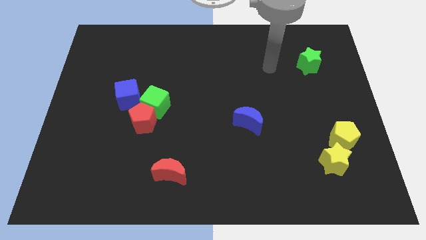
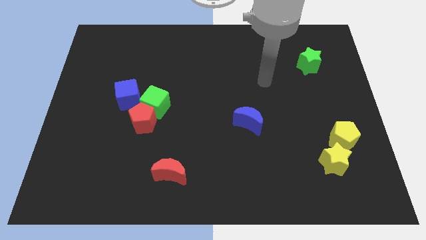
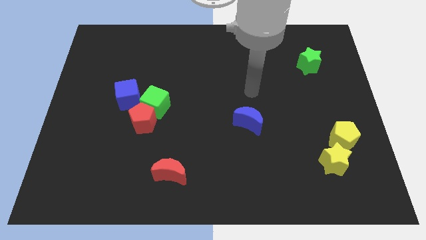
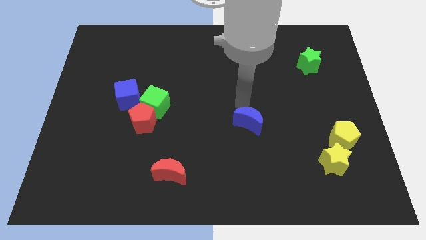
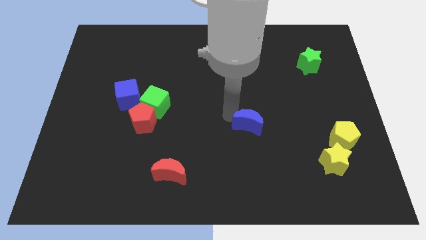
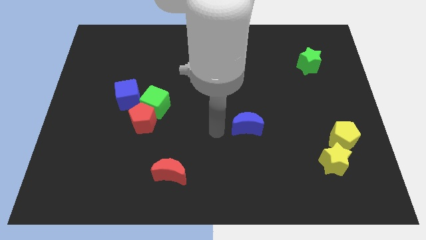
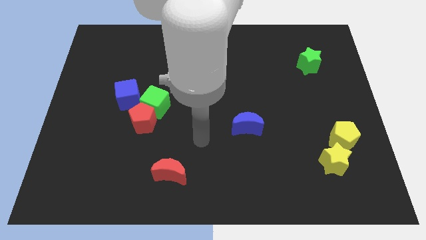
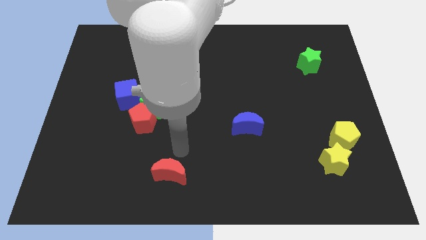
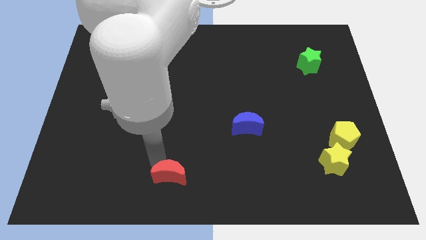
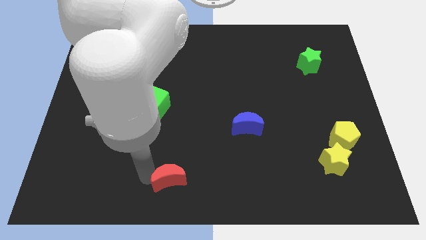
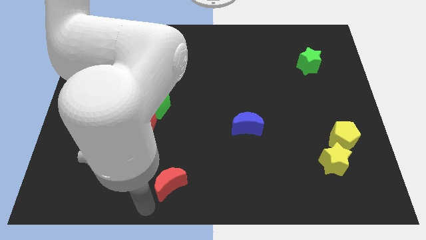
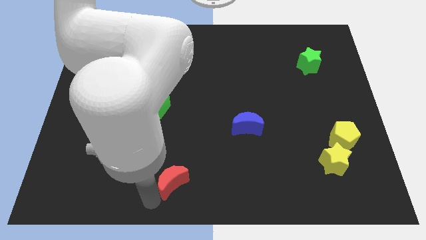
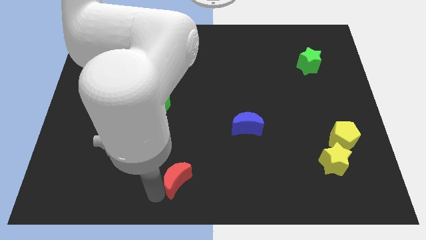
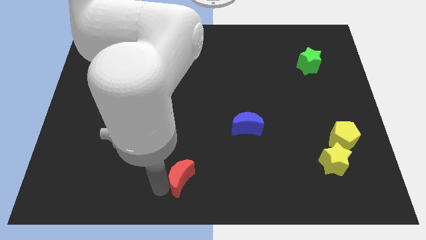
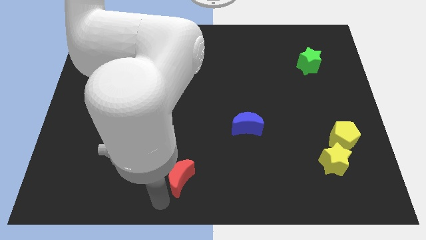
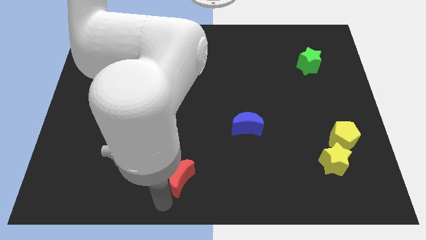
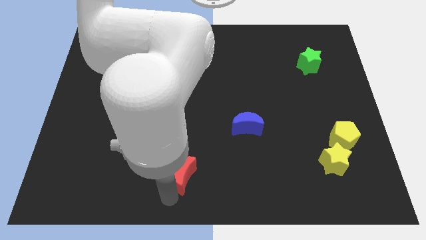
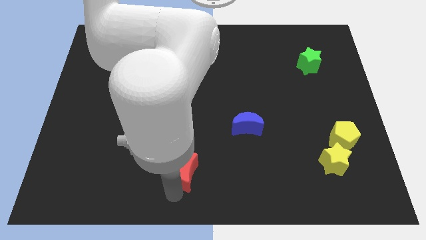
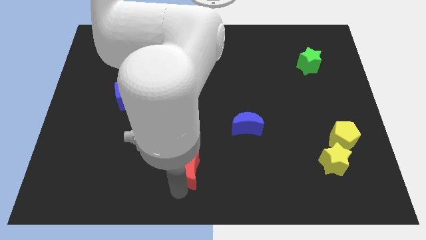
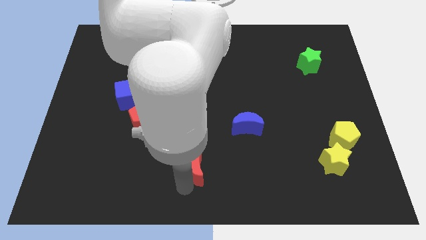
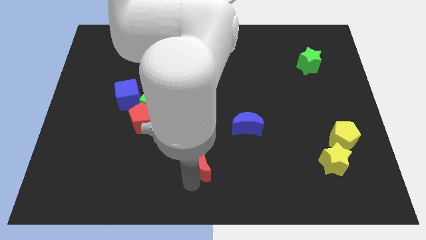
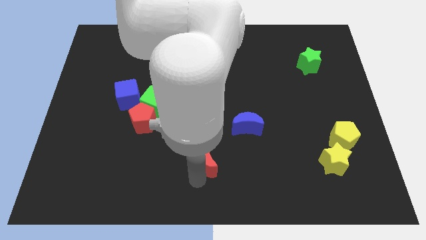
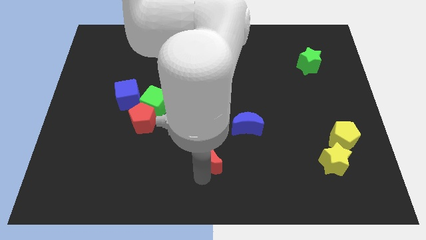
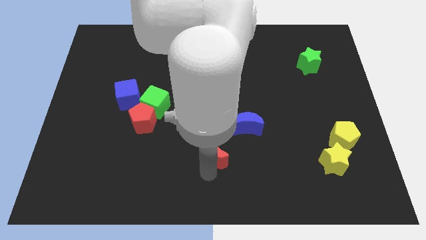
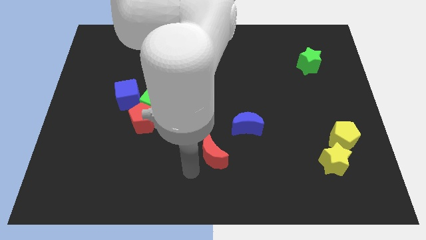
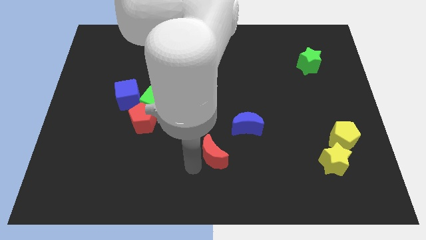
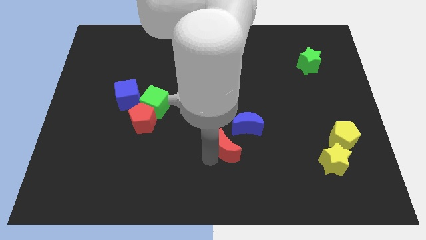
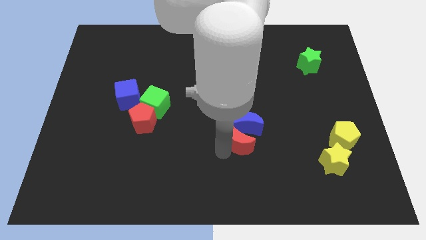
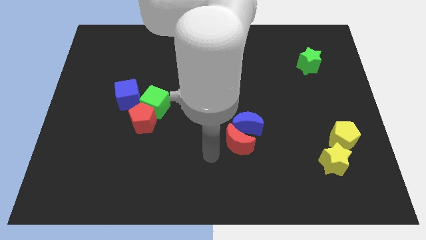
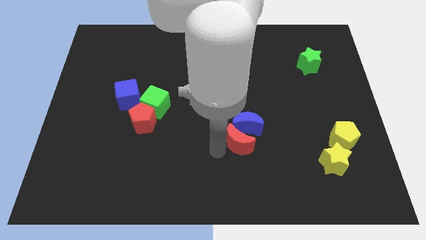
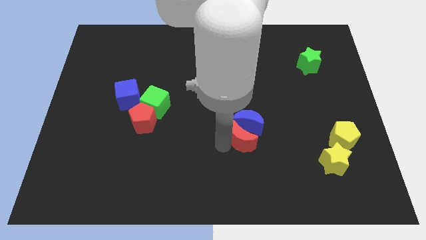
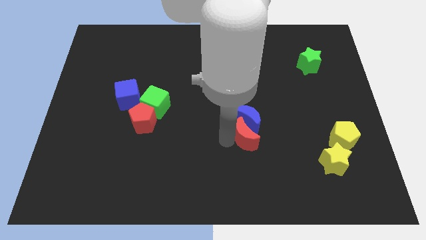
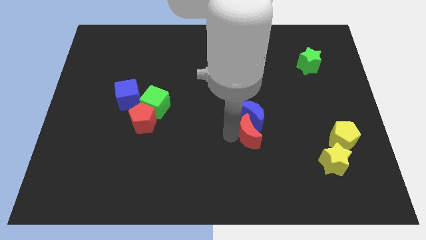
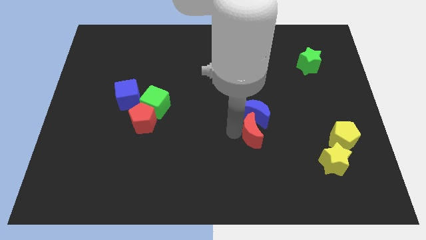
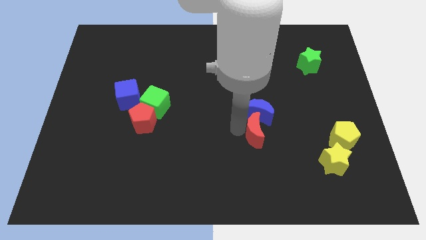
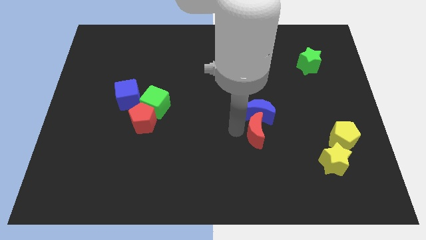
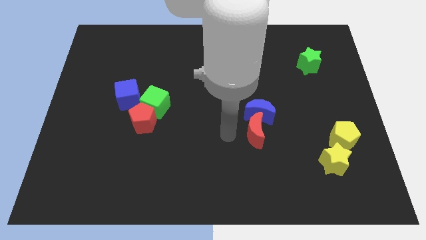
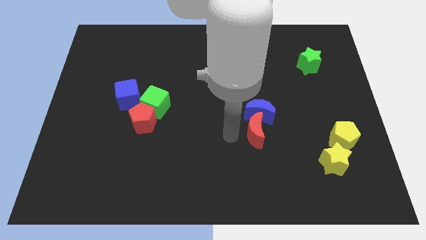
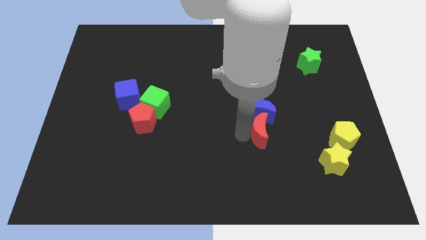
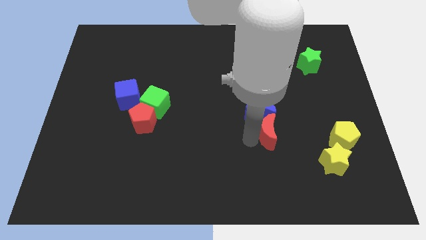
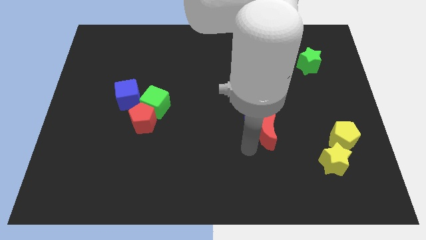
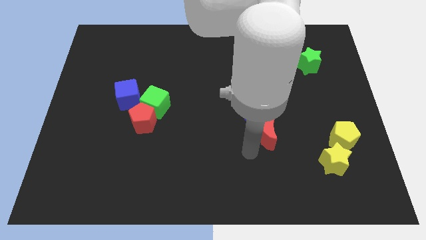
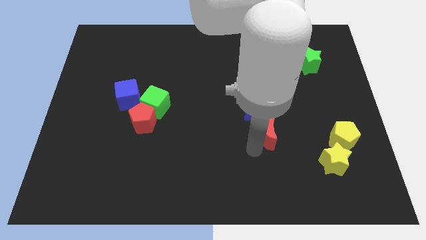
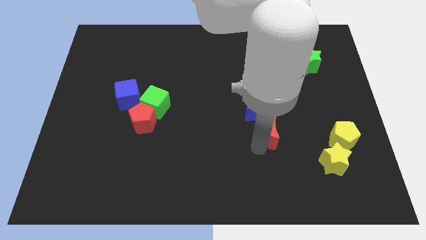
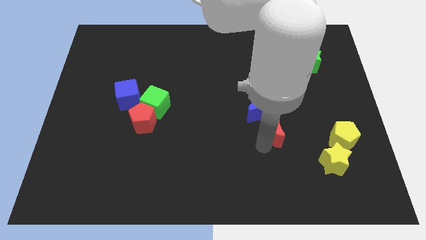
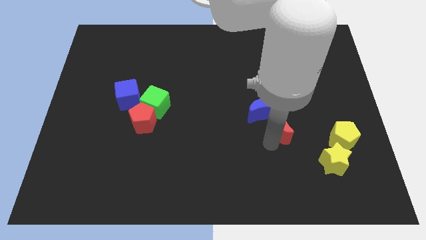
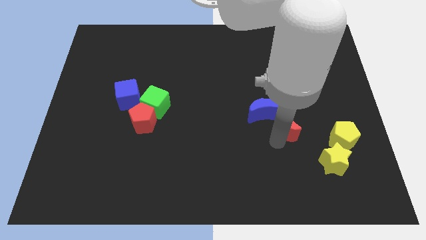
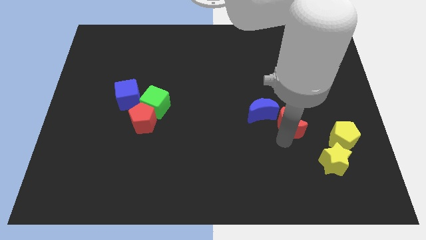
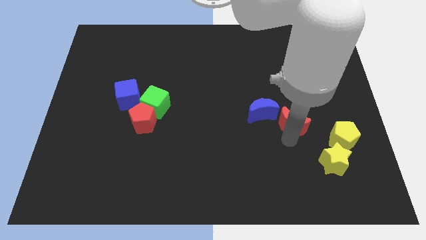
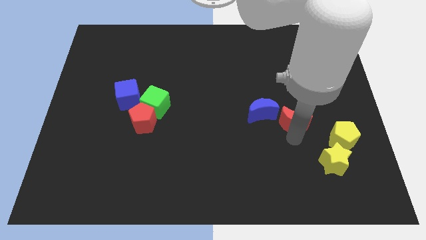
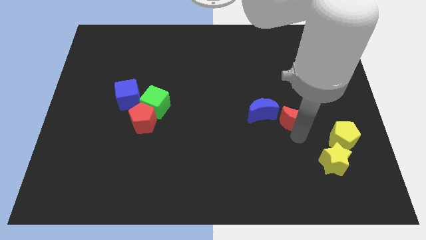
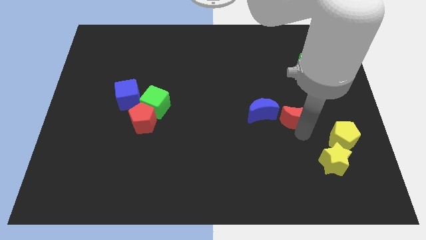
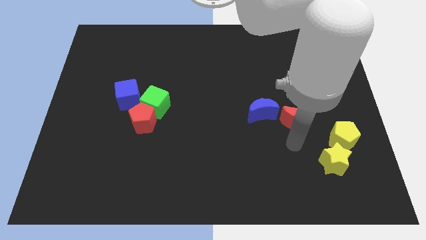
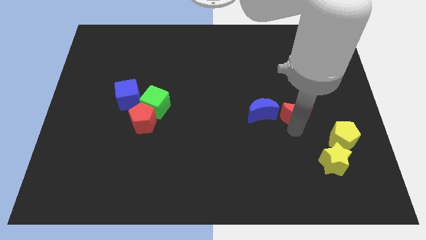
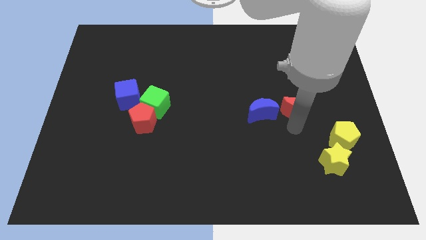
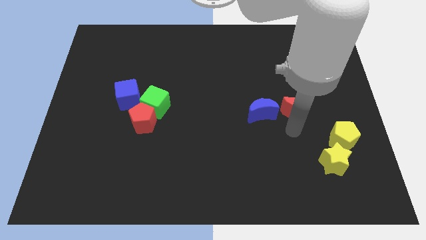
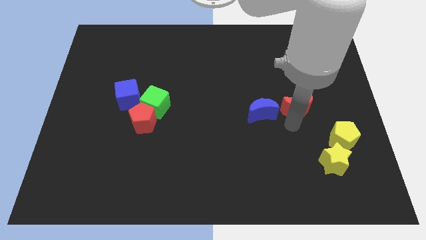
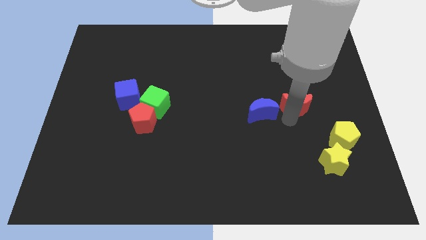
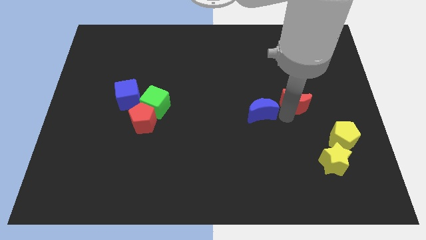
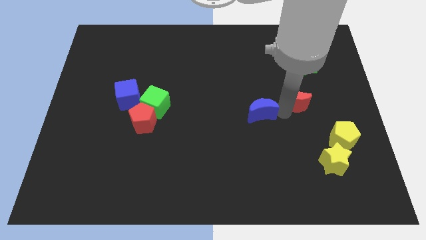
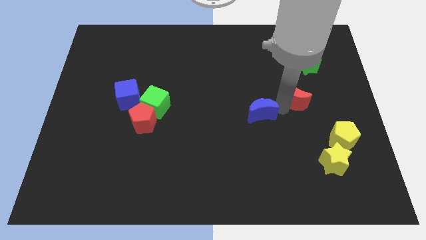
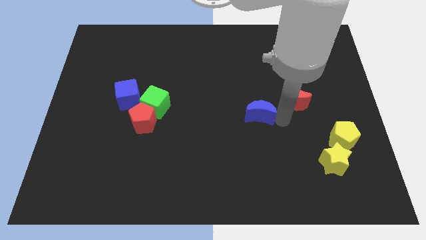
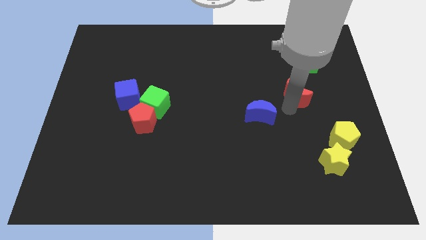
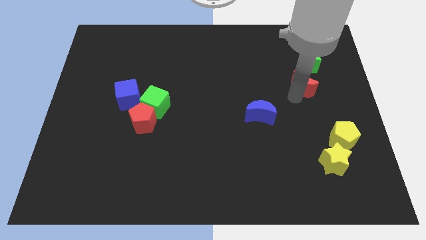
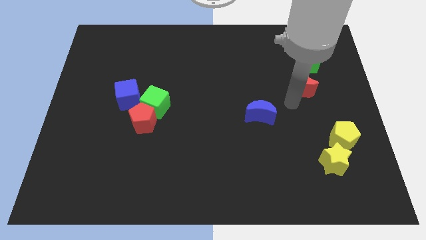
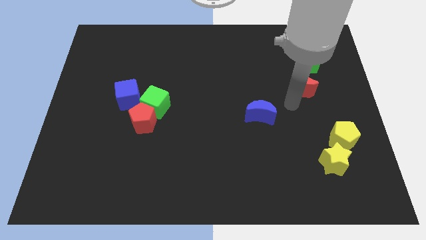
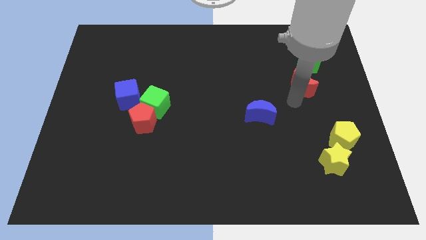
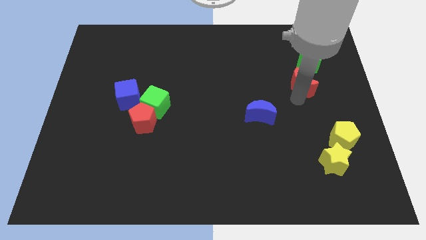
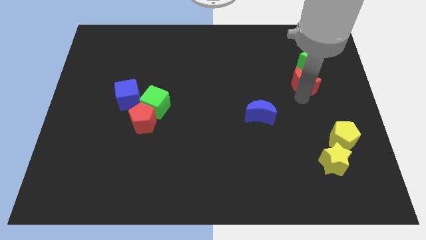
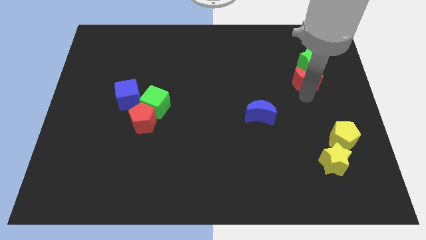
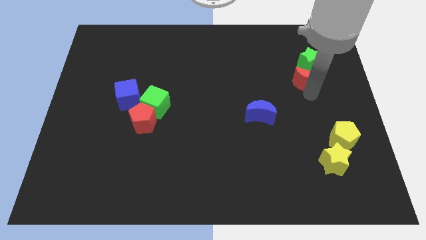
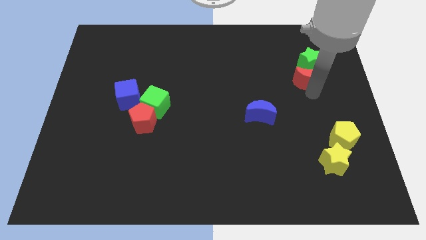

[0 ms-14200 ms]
slide the red moon towards the green star
